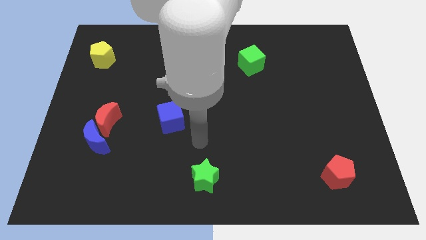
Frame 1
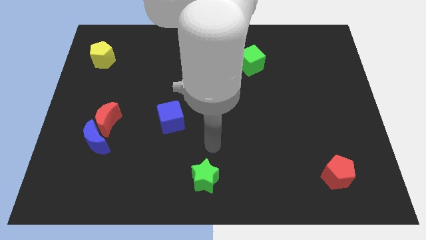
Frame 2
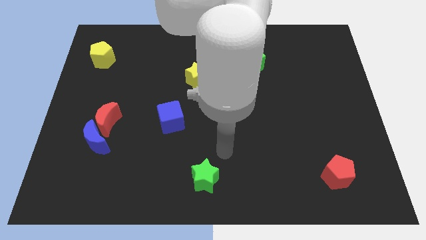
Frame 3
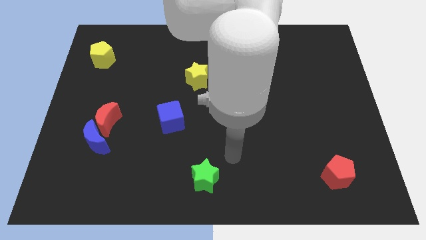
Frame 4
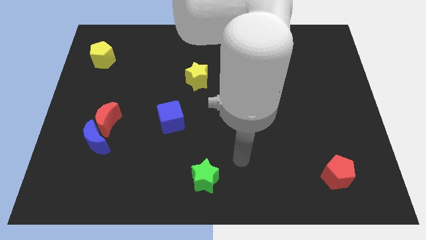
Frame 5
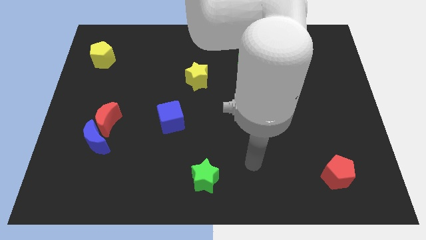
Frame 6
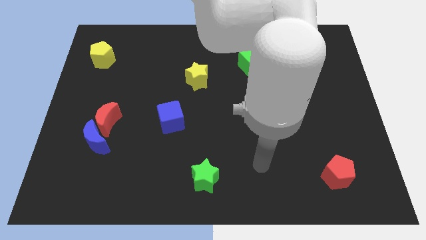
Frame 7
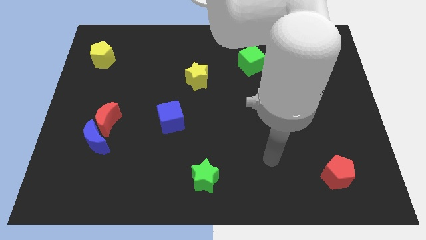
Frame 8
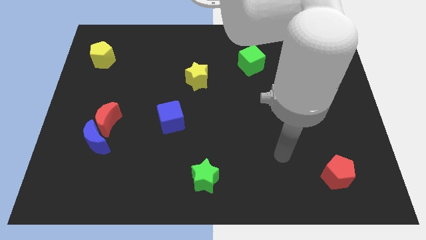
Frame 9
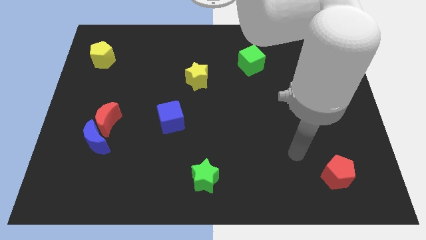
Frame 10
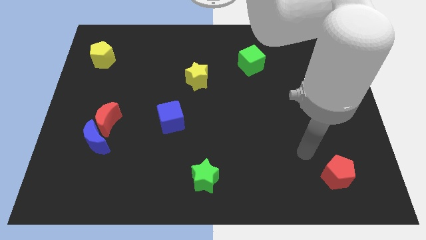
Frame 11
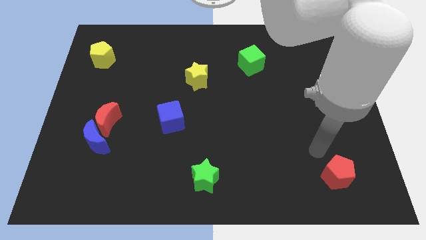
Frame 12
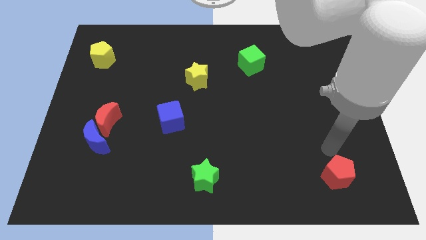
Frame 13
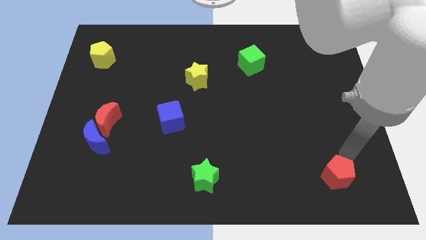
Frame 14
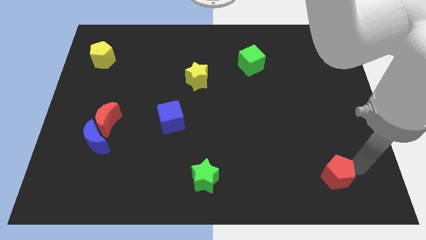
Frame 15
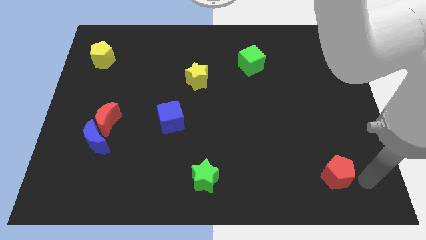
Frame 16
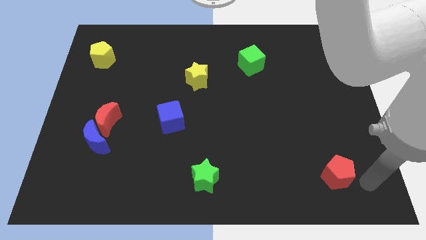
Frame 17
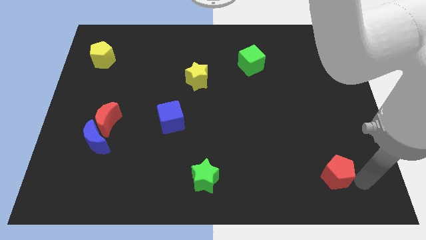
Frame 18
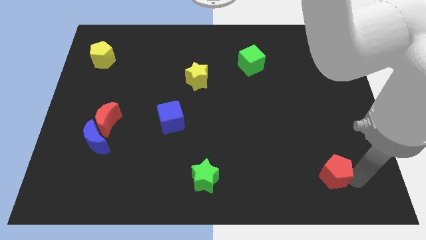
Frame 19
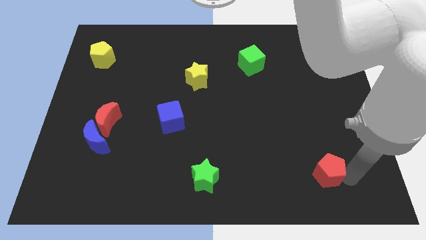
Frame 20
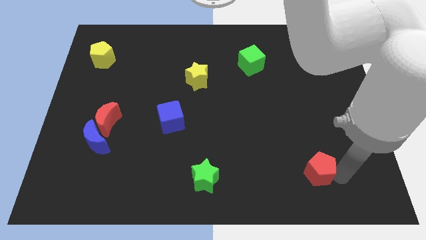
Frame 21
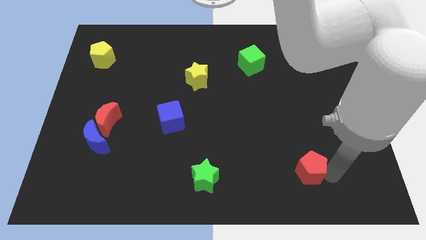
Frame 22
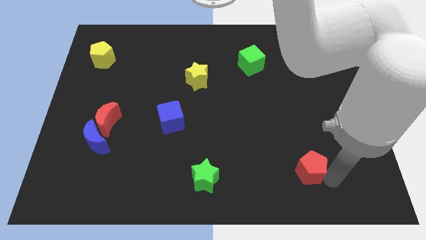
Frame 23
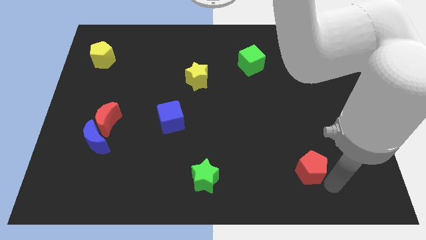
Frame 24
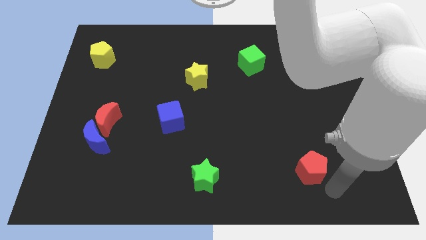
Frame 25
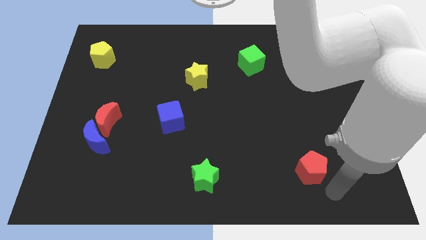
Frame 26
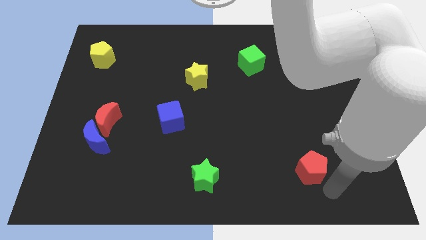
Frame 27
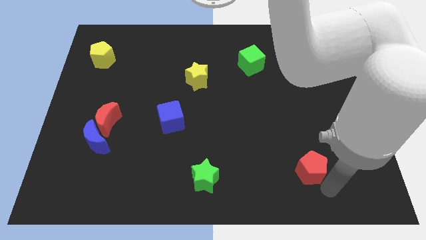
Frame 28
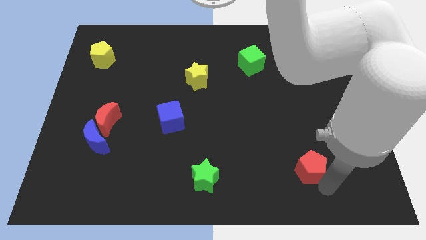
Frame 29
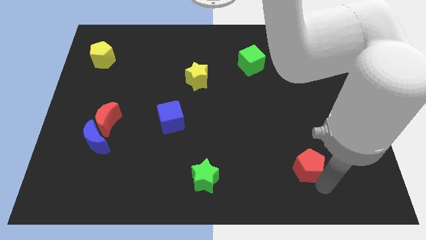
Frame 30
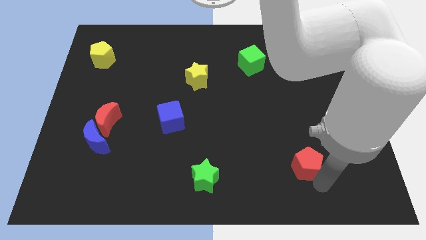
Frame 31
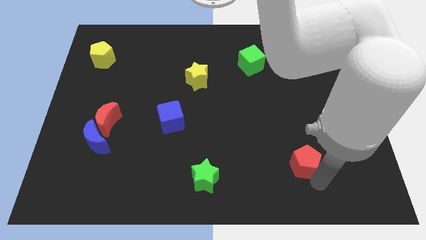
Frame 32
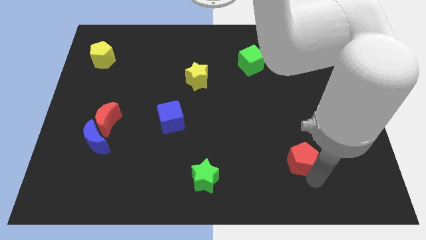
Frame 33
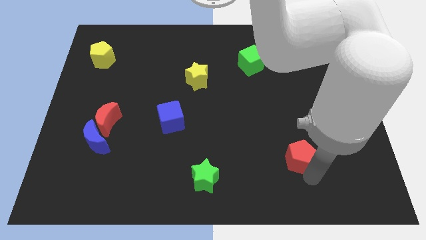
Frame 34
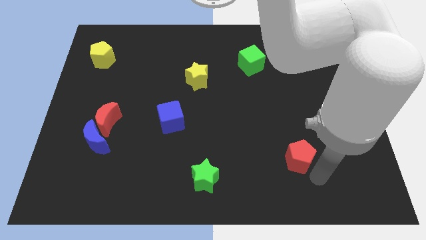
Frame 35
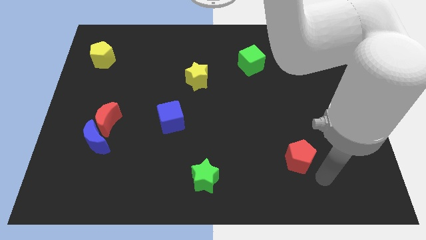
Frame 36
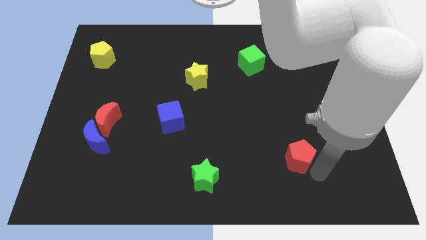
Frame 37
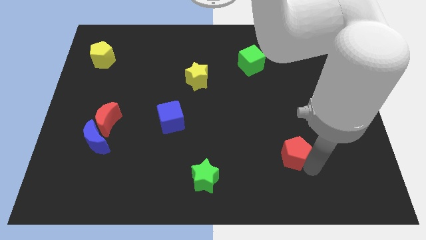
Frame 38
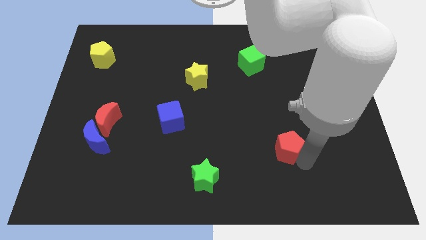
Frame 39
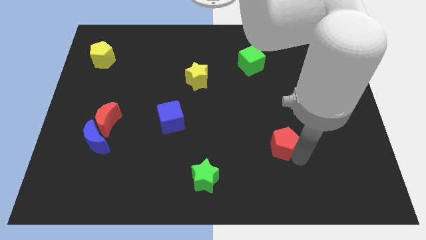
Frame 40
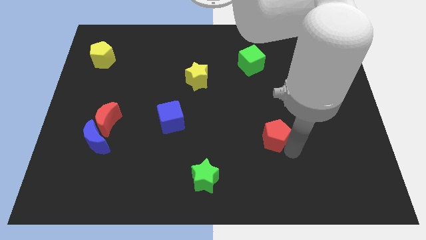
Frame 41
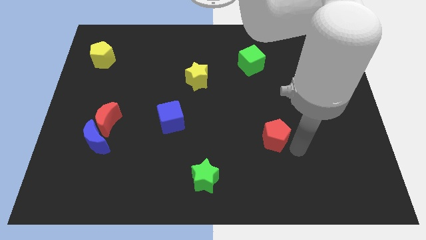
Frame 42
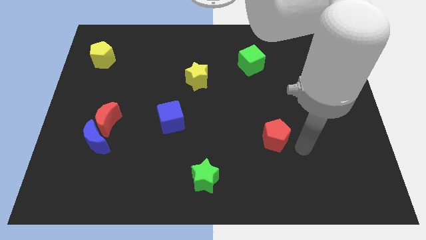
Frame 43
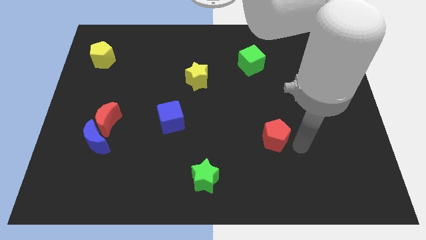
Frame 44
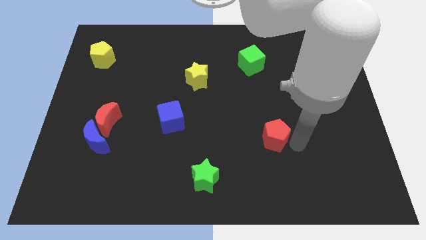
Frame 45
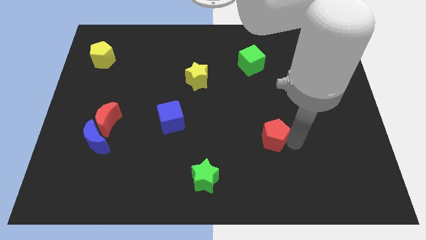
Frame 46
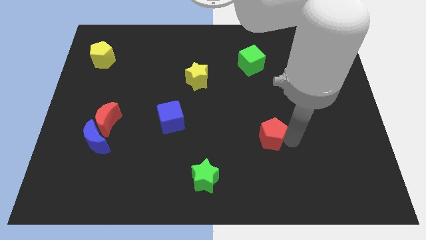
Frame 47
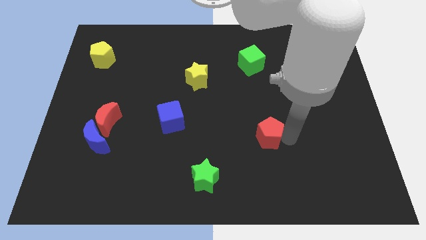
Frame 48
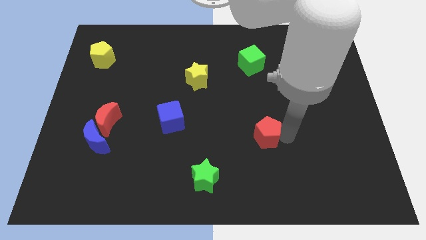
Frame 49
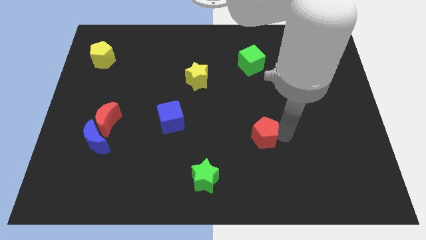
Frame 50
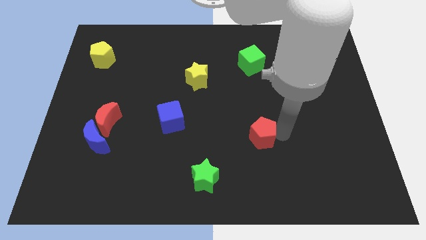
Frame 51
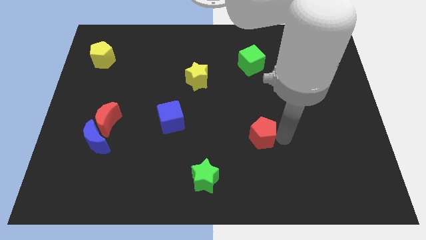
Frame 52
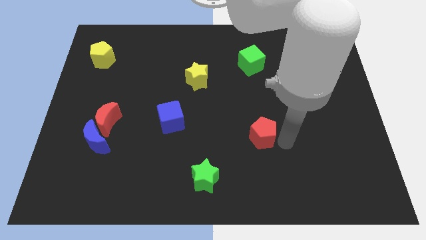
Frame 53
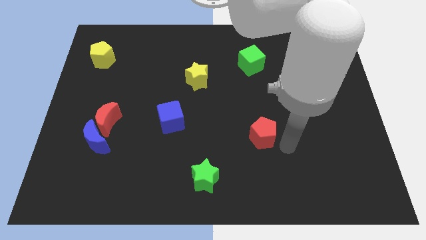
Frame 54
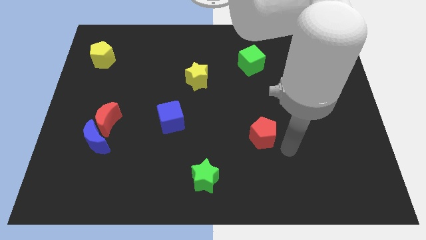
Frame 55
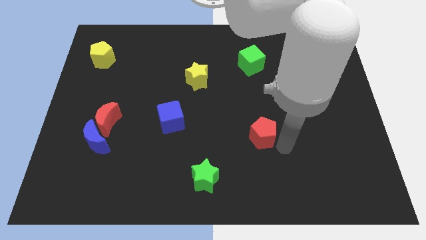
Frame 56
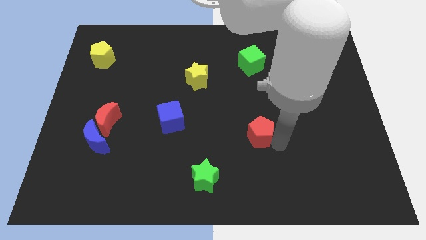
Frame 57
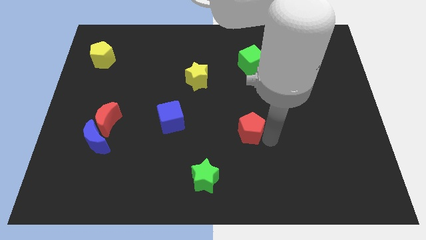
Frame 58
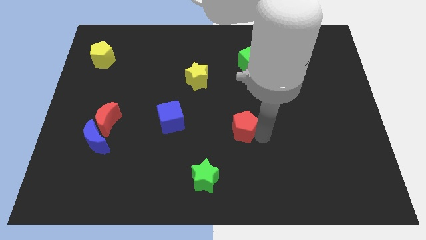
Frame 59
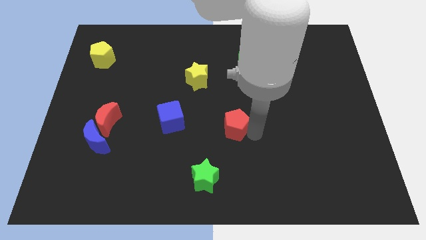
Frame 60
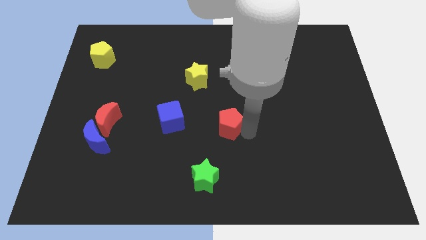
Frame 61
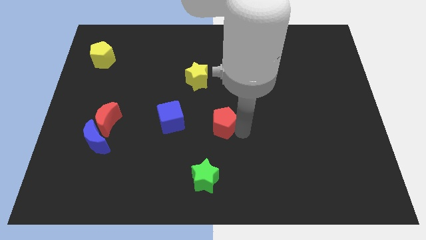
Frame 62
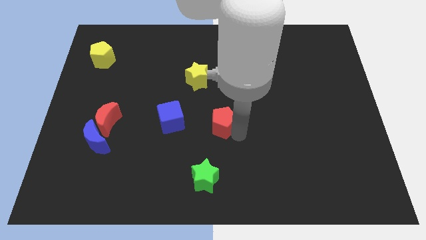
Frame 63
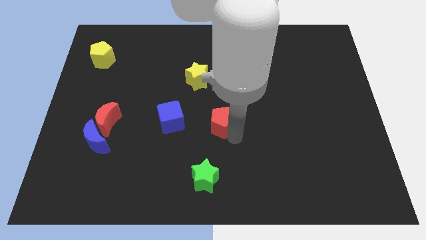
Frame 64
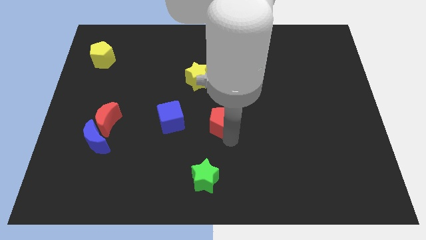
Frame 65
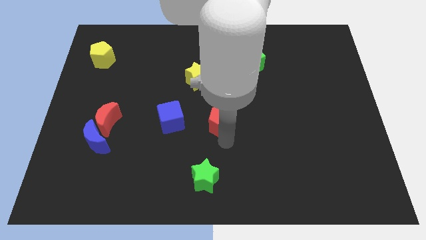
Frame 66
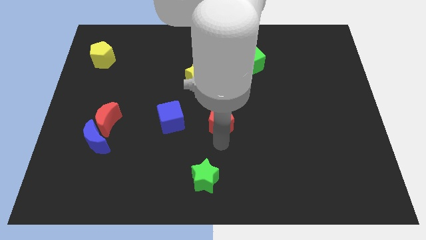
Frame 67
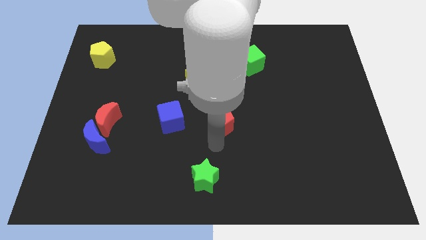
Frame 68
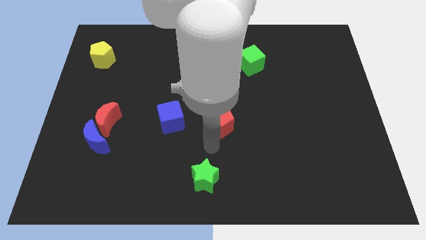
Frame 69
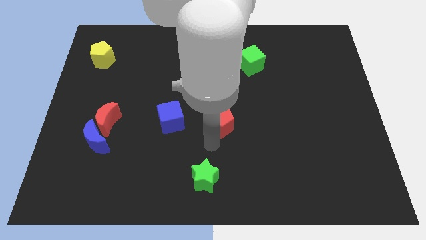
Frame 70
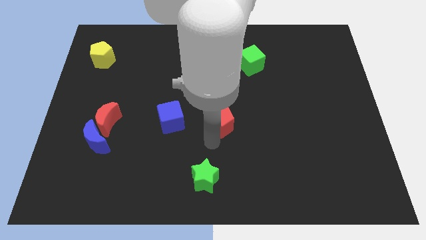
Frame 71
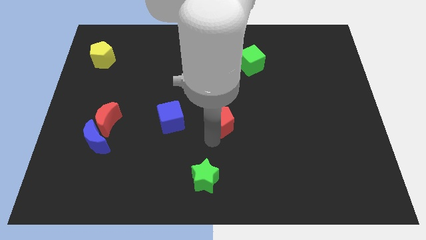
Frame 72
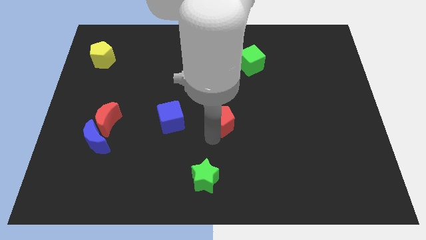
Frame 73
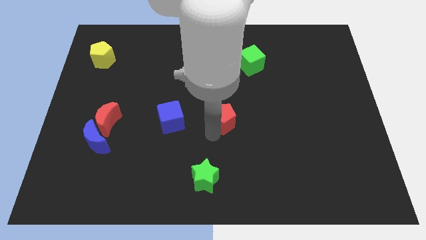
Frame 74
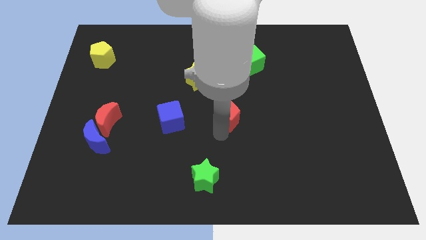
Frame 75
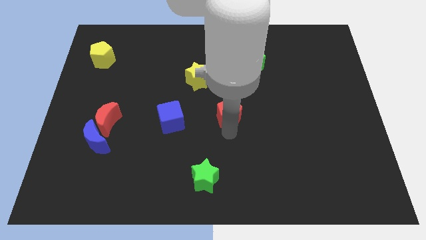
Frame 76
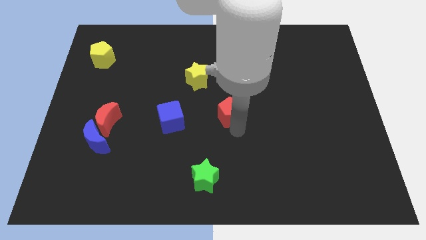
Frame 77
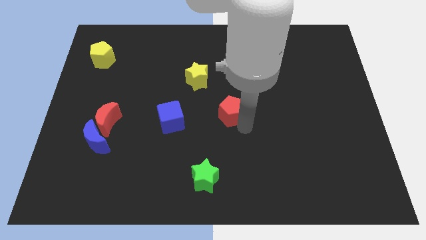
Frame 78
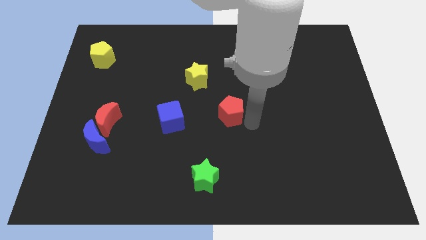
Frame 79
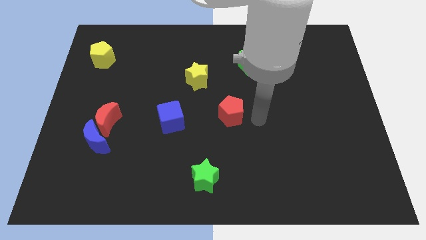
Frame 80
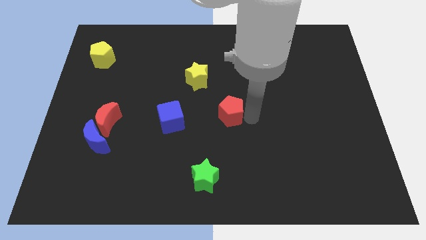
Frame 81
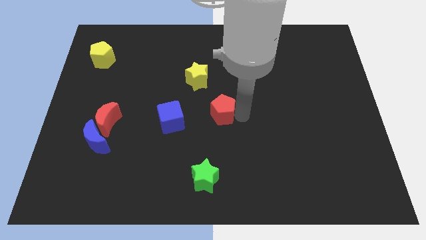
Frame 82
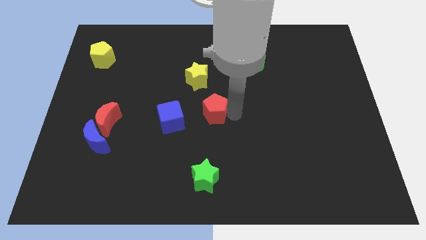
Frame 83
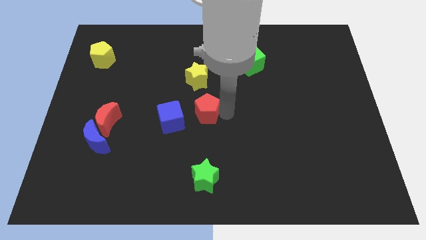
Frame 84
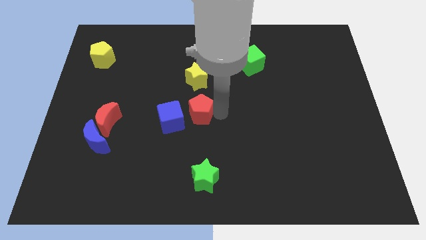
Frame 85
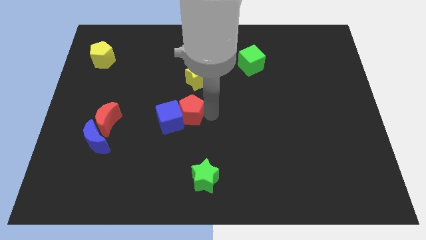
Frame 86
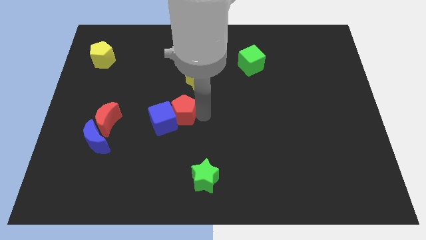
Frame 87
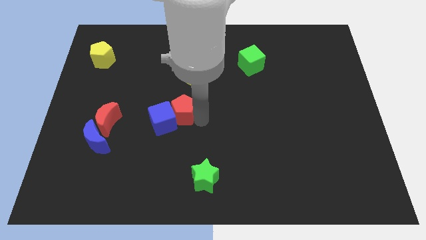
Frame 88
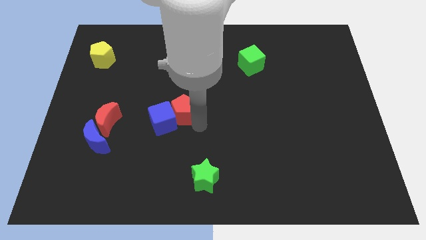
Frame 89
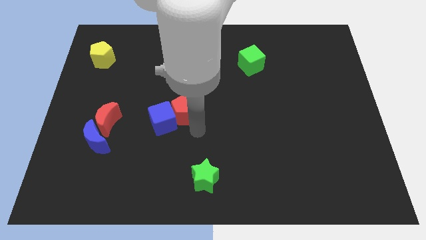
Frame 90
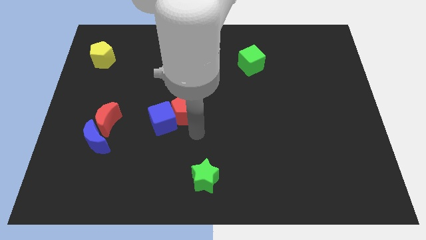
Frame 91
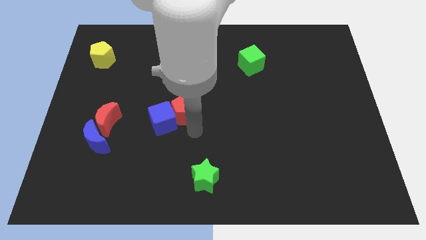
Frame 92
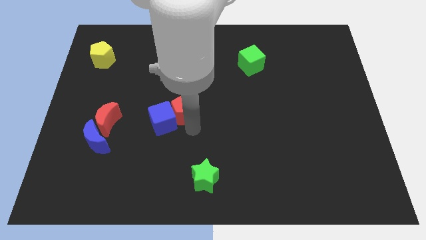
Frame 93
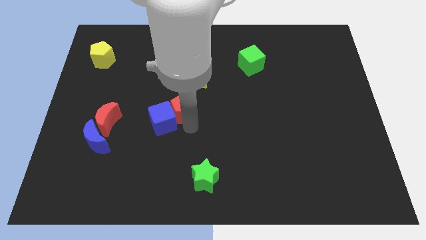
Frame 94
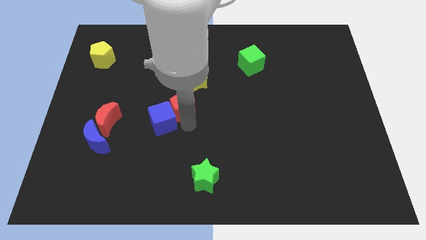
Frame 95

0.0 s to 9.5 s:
put the red pentagon diagonally down and to the left of the yellow star
